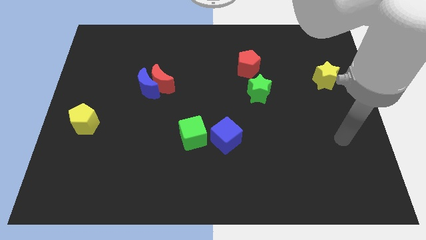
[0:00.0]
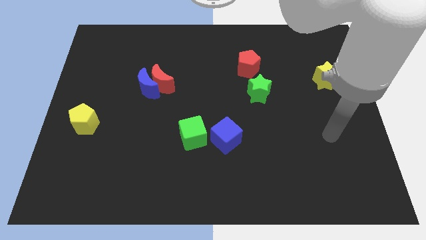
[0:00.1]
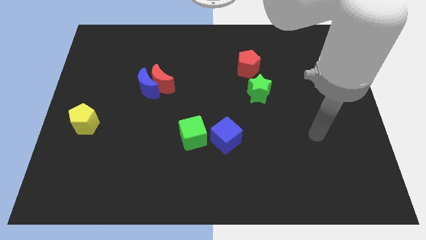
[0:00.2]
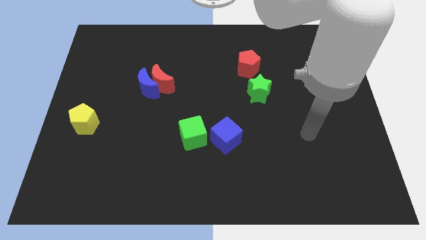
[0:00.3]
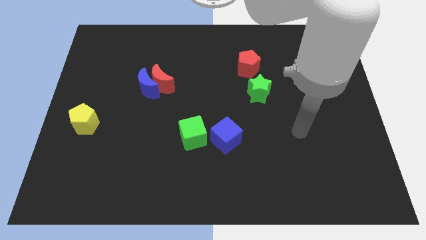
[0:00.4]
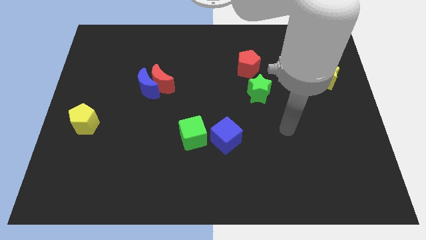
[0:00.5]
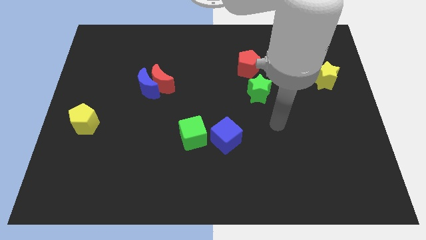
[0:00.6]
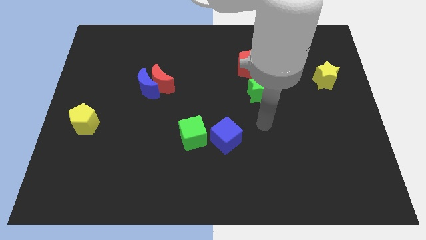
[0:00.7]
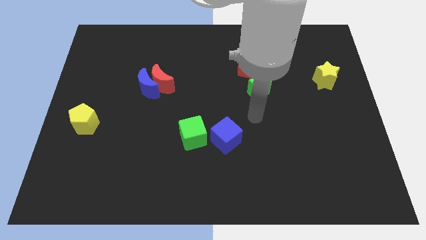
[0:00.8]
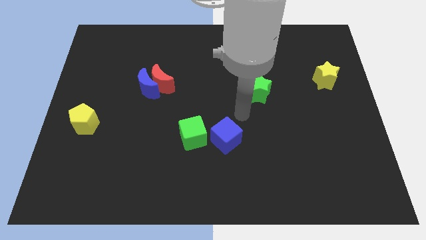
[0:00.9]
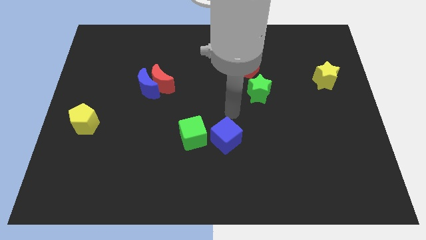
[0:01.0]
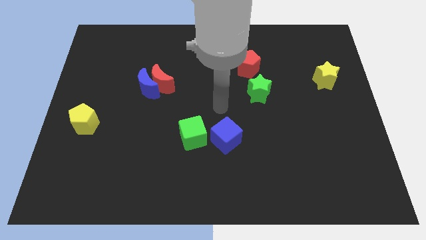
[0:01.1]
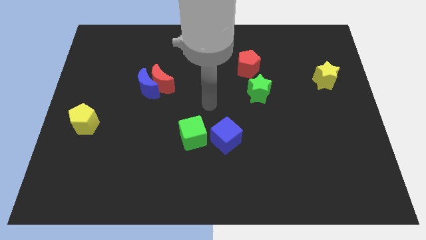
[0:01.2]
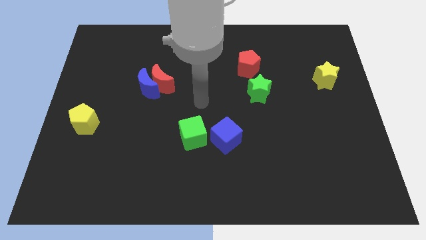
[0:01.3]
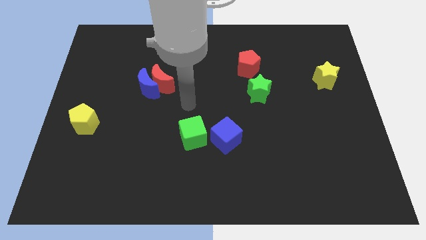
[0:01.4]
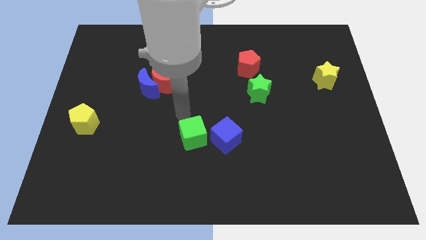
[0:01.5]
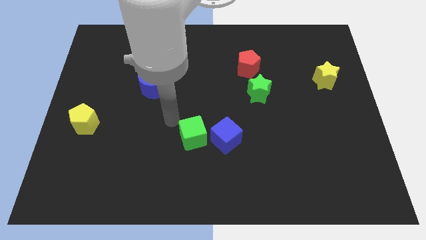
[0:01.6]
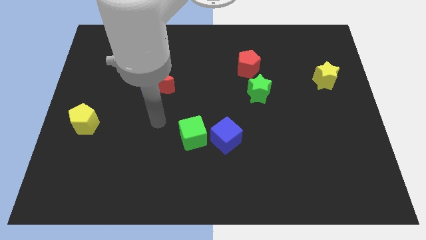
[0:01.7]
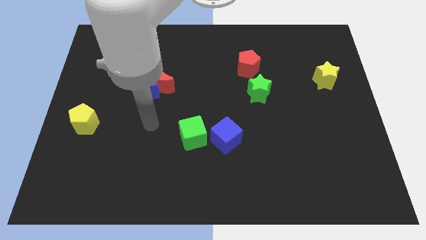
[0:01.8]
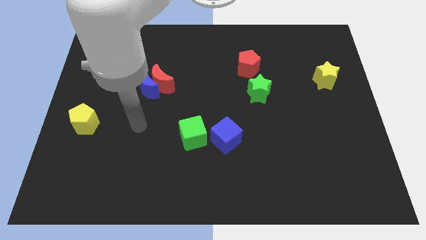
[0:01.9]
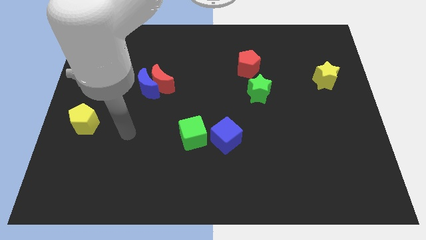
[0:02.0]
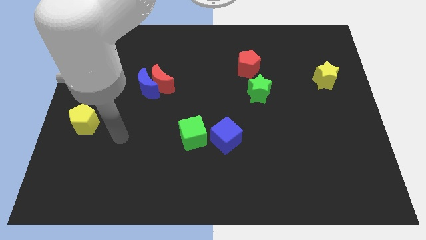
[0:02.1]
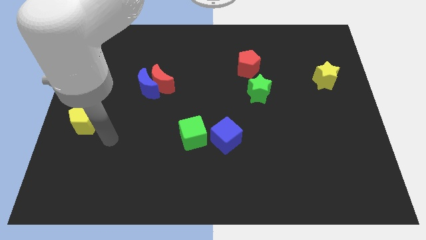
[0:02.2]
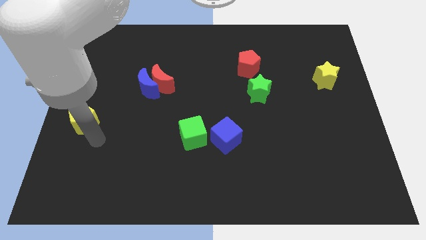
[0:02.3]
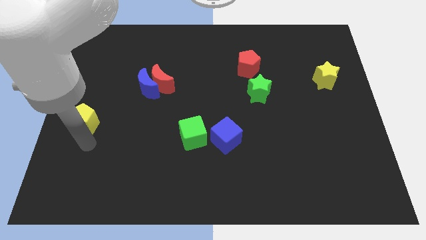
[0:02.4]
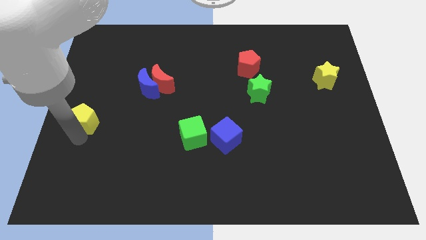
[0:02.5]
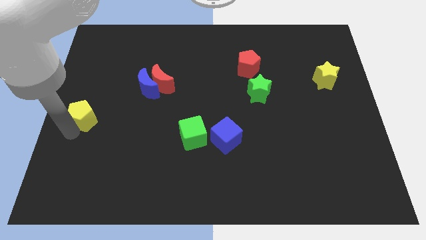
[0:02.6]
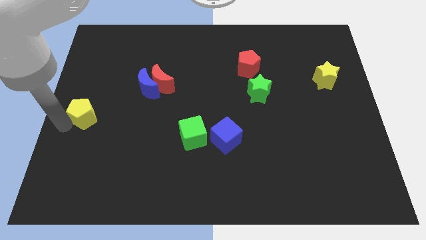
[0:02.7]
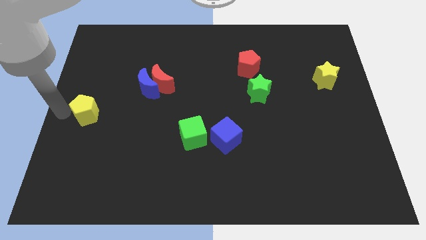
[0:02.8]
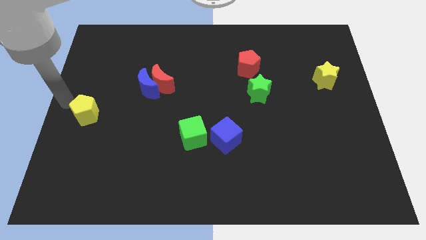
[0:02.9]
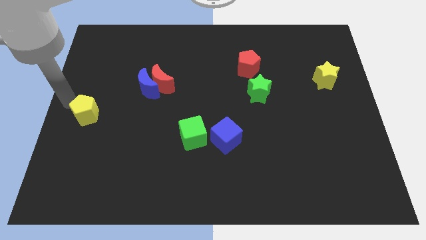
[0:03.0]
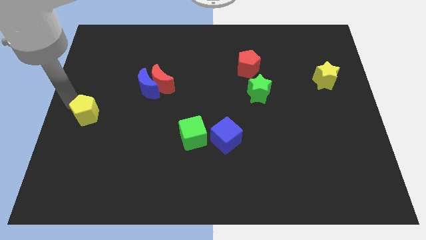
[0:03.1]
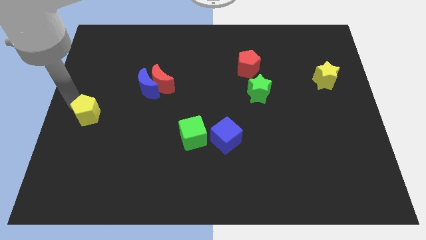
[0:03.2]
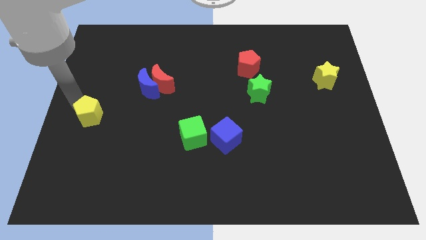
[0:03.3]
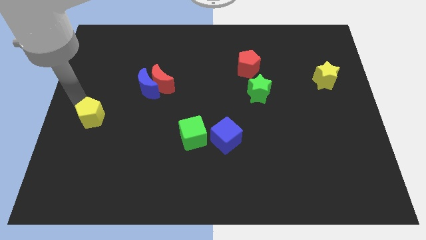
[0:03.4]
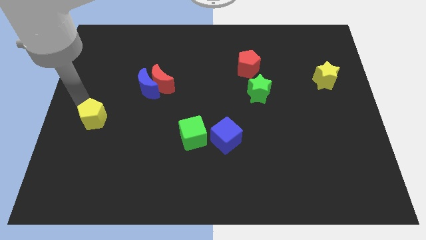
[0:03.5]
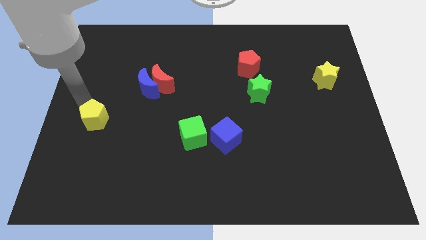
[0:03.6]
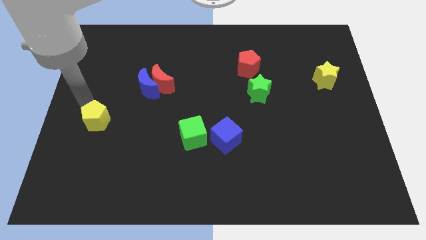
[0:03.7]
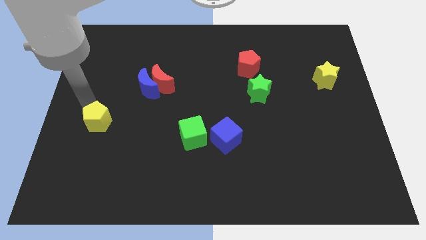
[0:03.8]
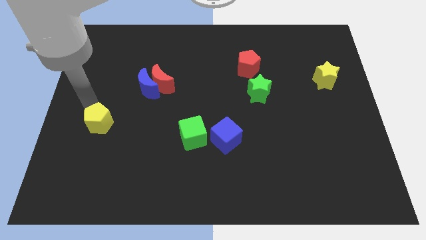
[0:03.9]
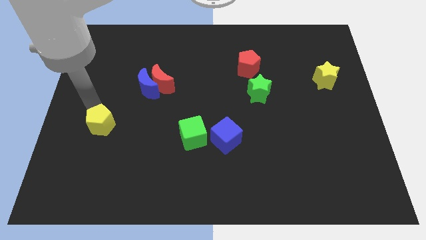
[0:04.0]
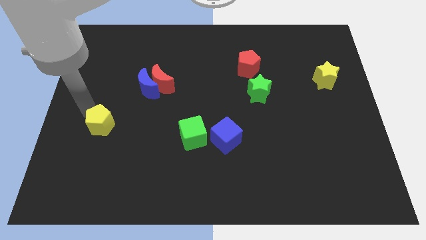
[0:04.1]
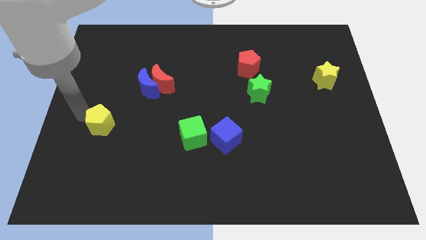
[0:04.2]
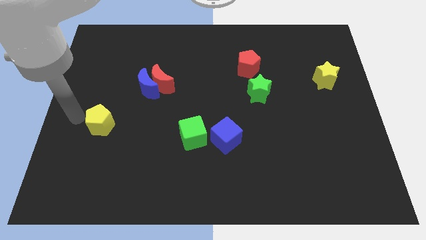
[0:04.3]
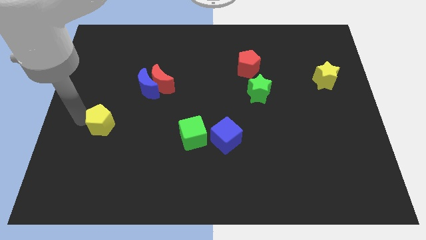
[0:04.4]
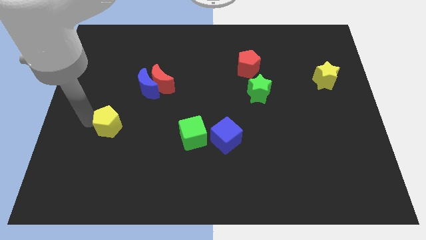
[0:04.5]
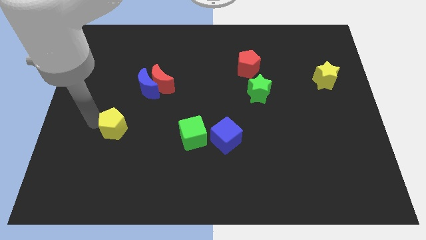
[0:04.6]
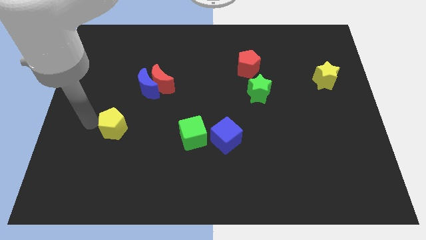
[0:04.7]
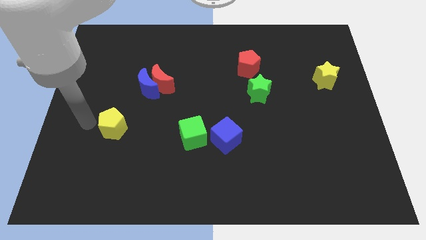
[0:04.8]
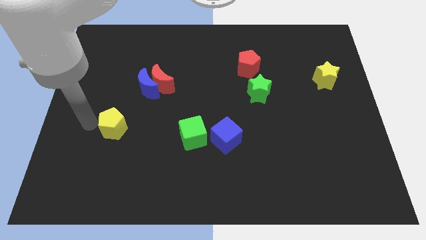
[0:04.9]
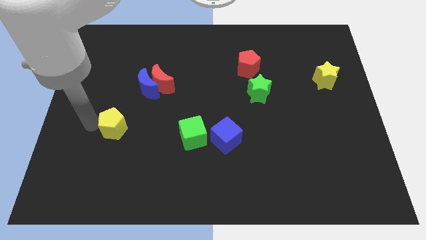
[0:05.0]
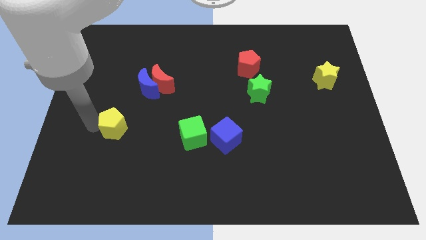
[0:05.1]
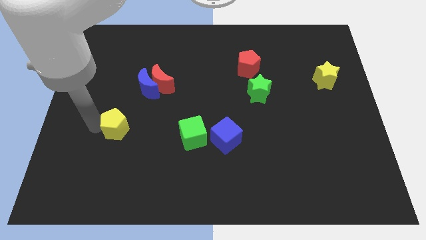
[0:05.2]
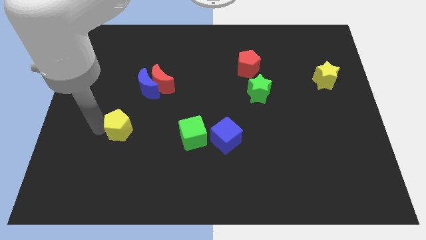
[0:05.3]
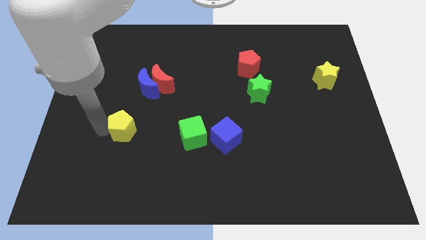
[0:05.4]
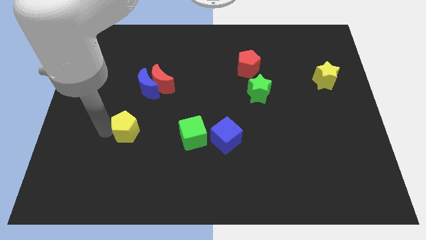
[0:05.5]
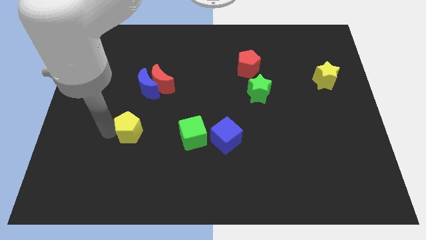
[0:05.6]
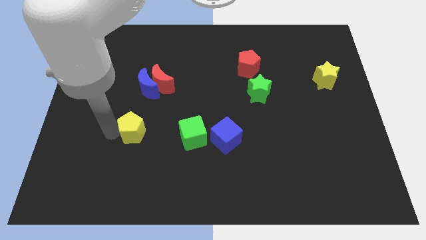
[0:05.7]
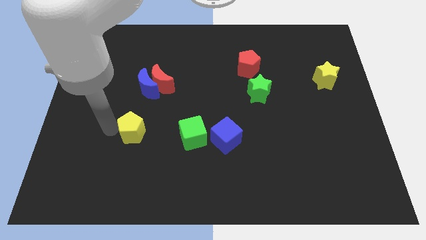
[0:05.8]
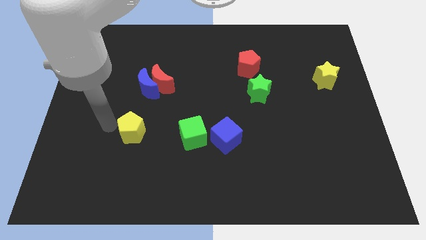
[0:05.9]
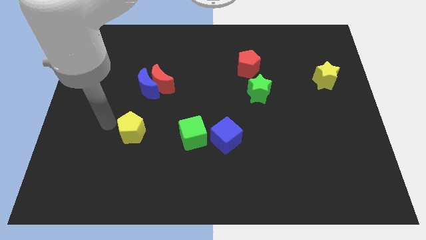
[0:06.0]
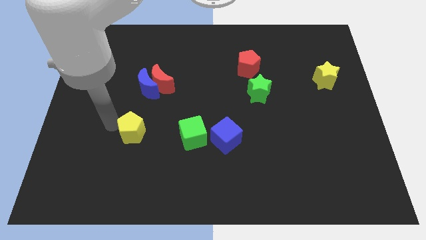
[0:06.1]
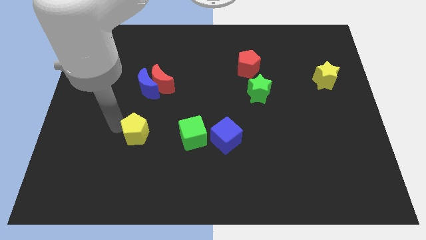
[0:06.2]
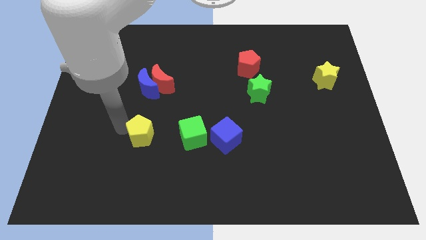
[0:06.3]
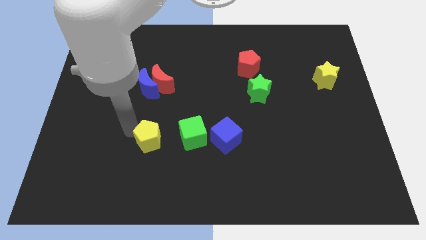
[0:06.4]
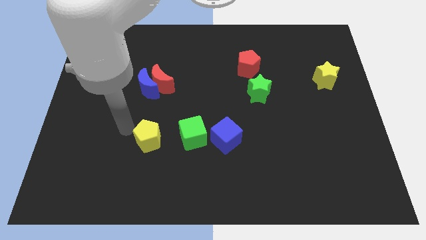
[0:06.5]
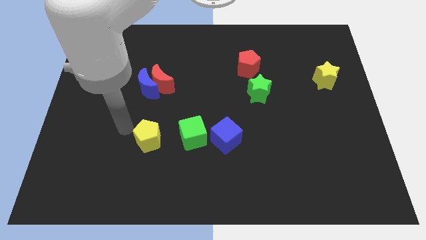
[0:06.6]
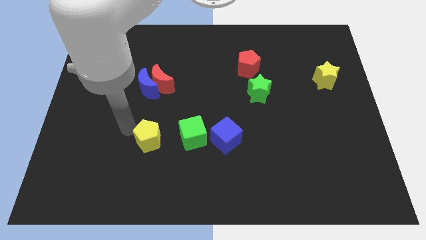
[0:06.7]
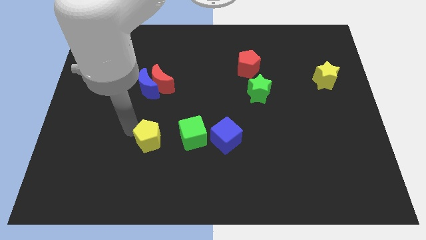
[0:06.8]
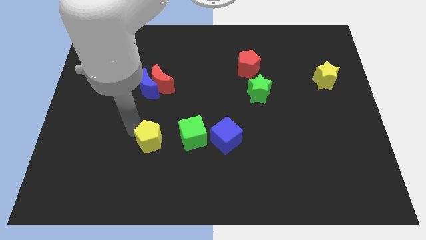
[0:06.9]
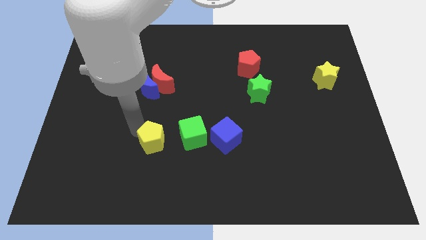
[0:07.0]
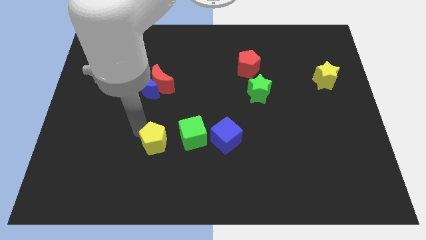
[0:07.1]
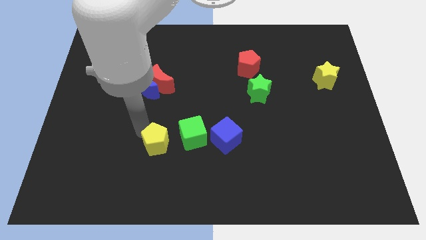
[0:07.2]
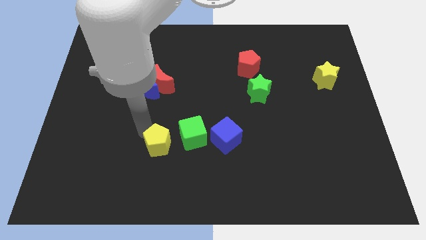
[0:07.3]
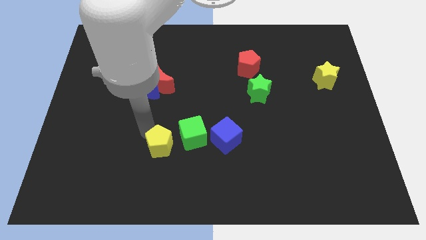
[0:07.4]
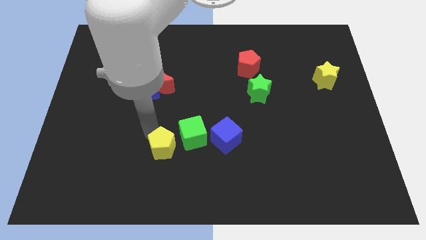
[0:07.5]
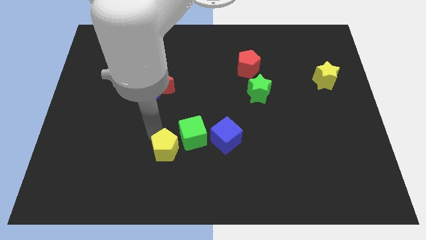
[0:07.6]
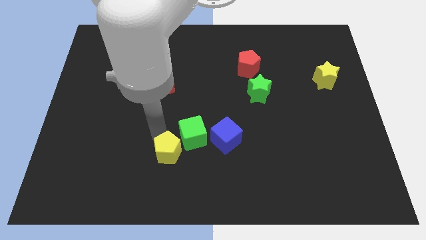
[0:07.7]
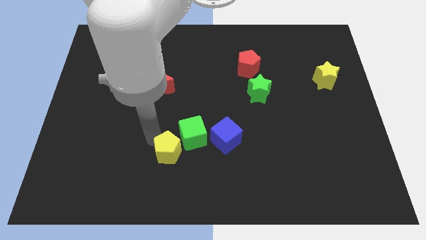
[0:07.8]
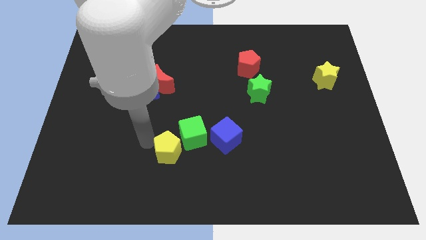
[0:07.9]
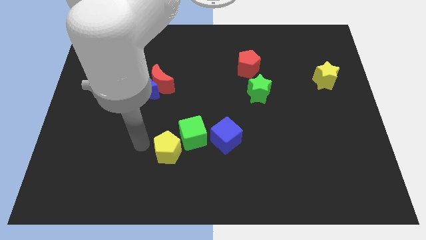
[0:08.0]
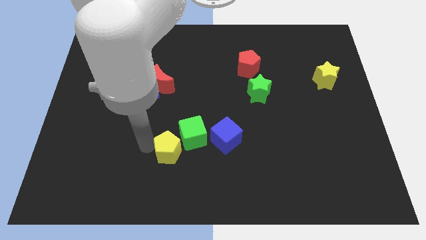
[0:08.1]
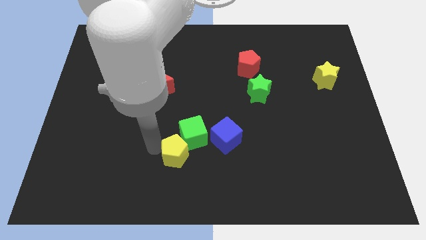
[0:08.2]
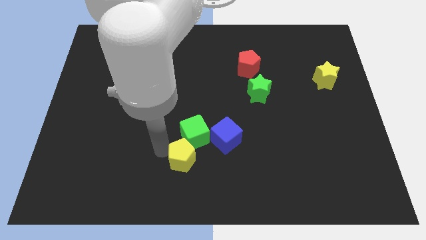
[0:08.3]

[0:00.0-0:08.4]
put the yellow pentagon diagonally down and to the left of the blue cube
